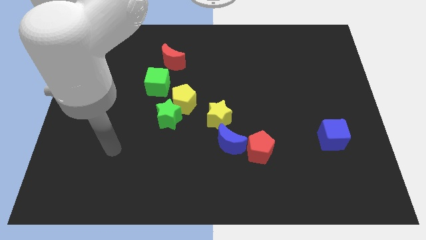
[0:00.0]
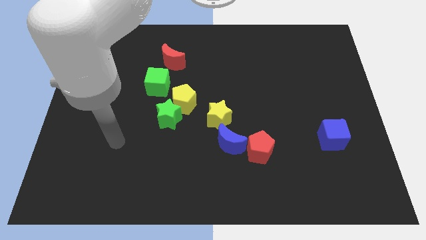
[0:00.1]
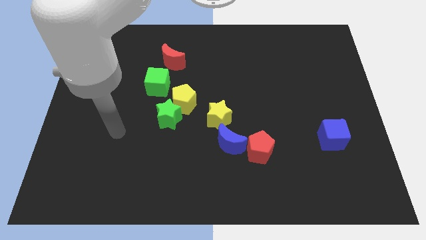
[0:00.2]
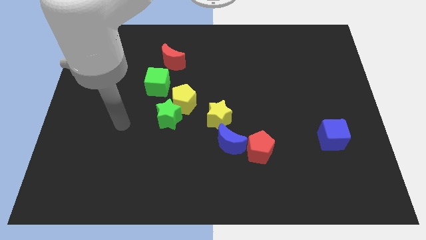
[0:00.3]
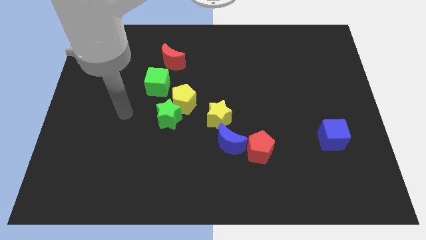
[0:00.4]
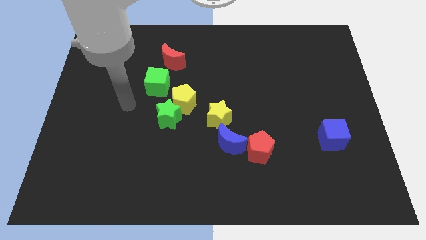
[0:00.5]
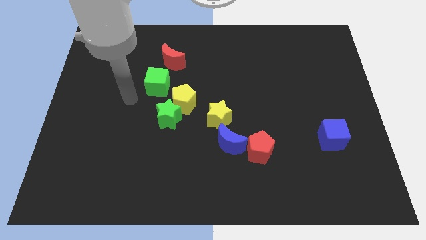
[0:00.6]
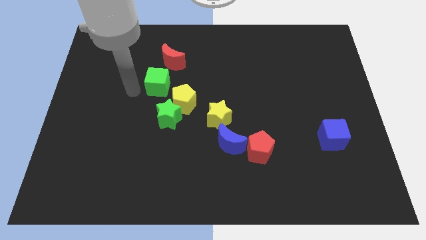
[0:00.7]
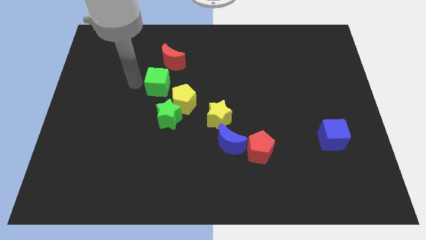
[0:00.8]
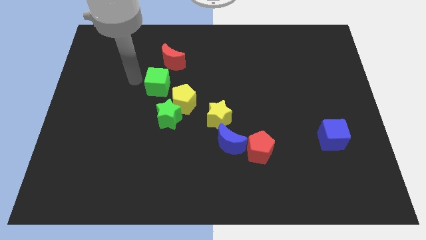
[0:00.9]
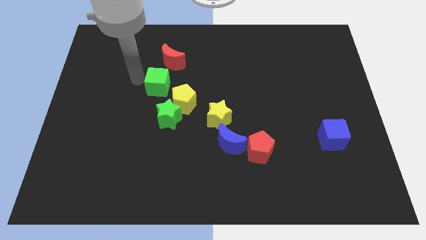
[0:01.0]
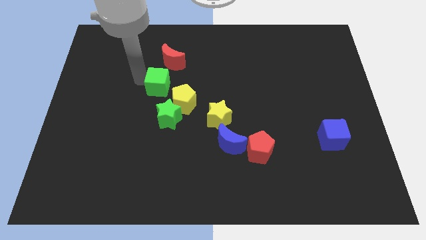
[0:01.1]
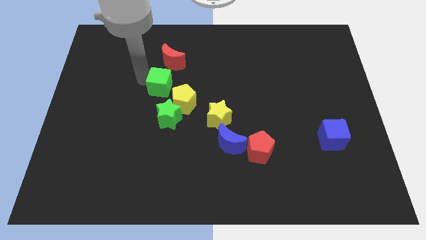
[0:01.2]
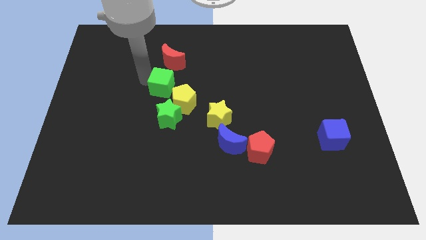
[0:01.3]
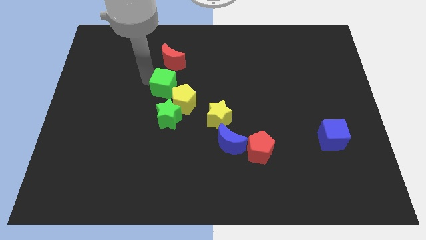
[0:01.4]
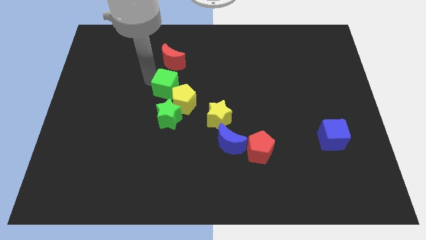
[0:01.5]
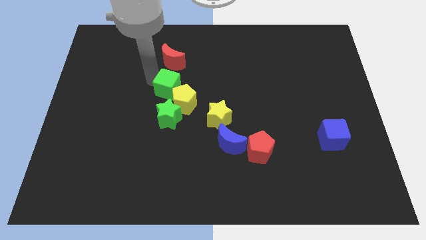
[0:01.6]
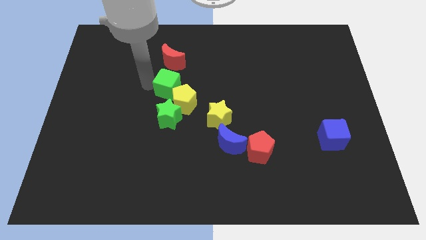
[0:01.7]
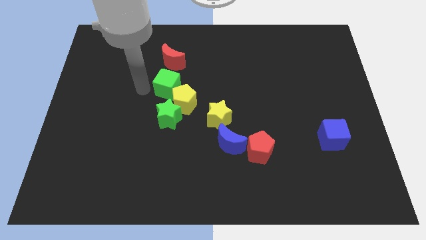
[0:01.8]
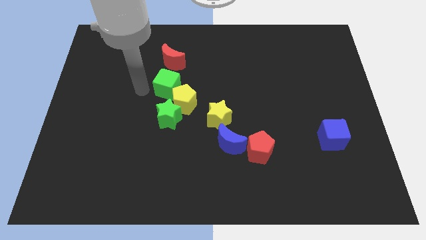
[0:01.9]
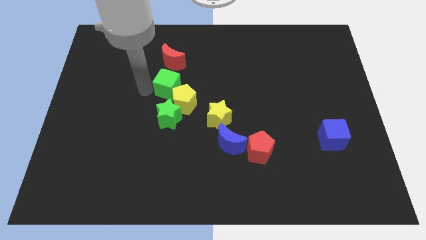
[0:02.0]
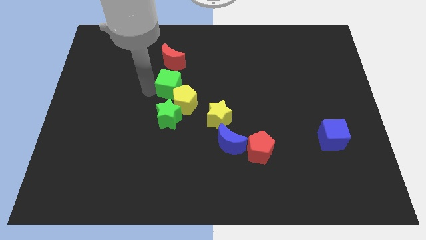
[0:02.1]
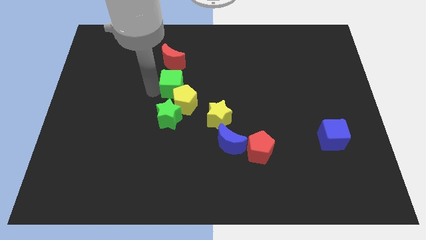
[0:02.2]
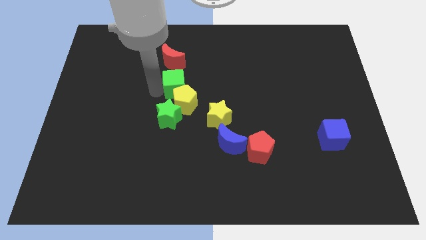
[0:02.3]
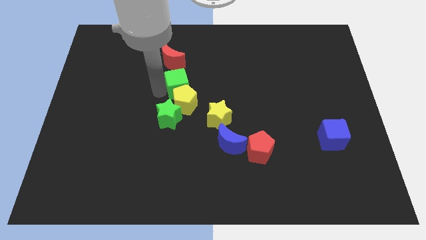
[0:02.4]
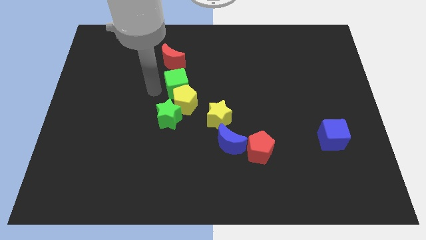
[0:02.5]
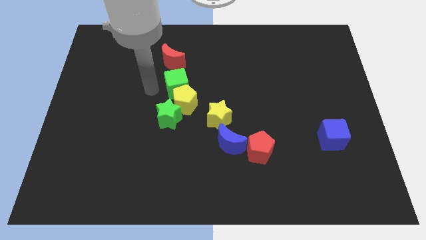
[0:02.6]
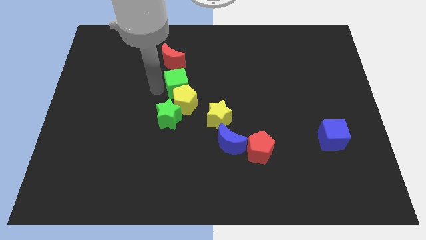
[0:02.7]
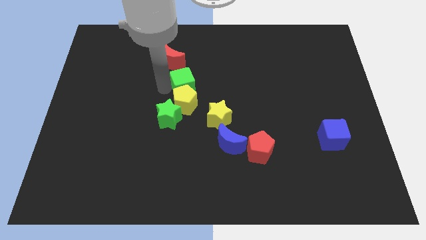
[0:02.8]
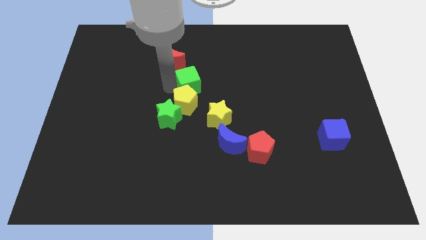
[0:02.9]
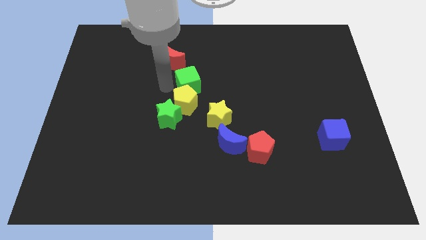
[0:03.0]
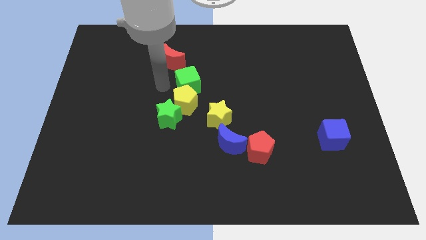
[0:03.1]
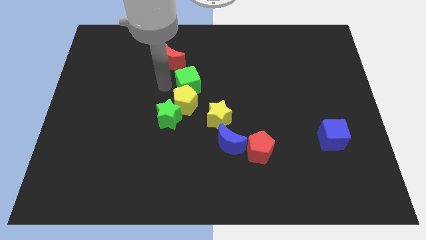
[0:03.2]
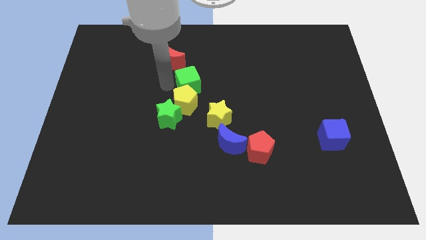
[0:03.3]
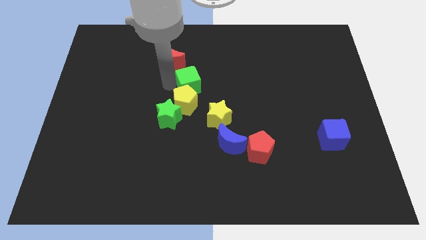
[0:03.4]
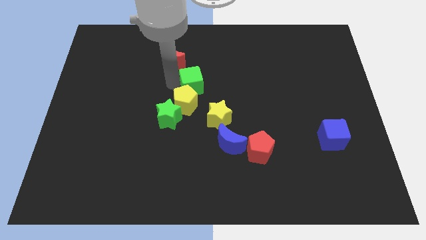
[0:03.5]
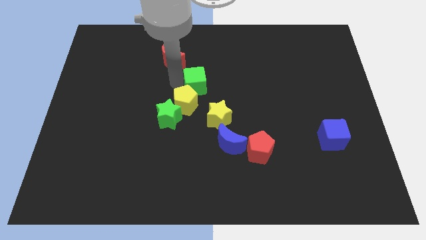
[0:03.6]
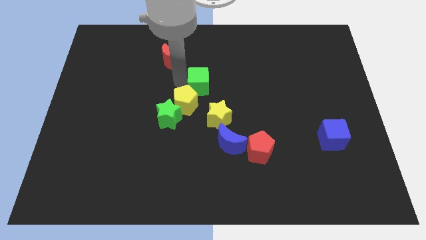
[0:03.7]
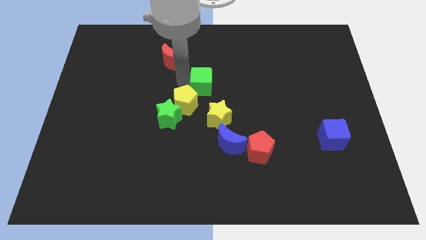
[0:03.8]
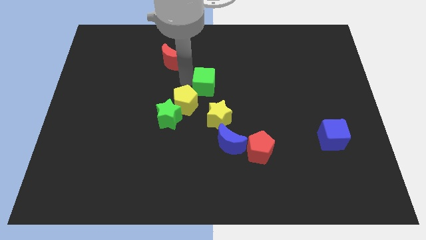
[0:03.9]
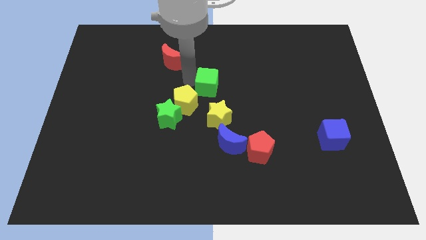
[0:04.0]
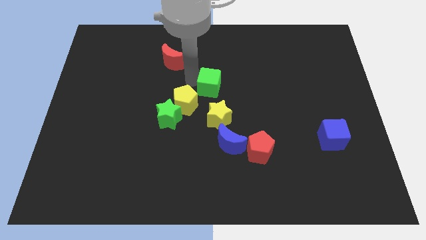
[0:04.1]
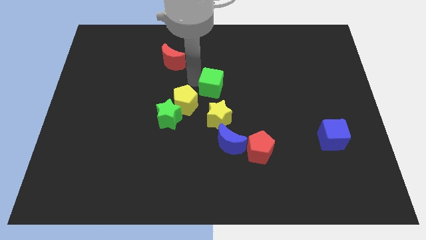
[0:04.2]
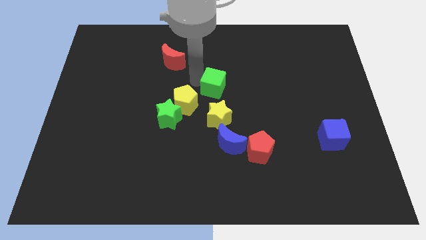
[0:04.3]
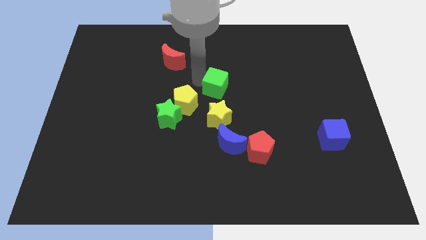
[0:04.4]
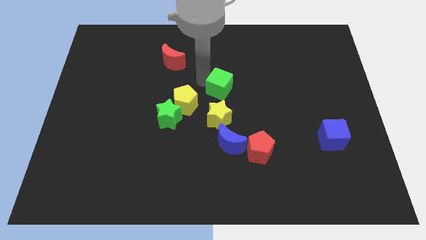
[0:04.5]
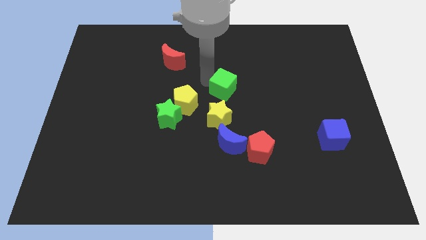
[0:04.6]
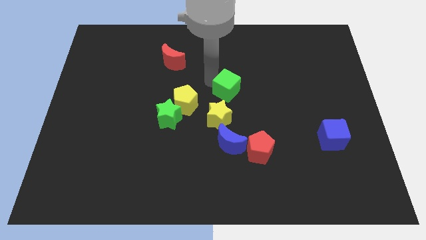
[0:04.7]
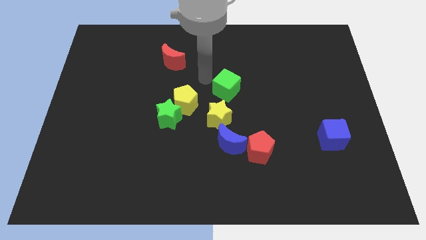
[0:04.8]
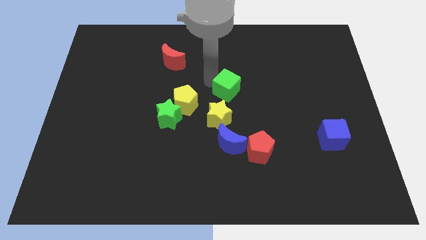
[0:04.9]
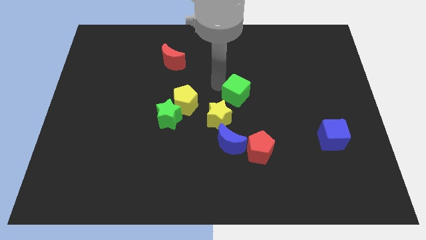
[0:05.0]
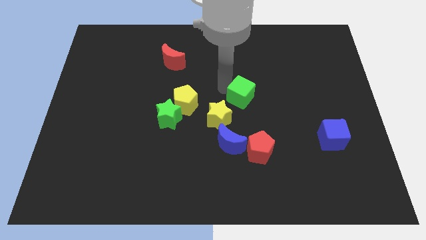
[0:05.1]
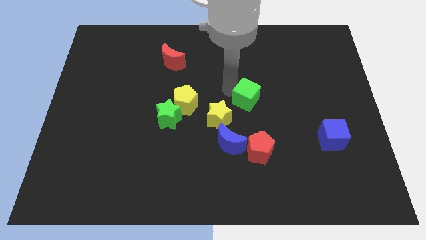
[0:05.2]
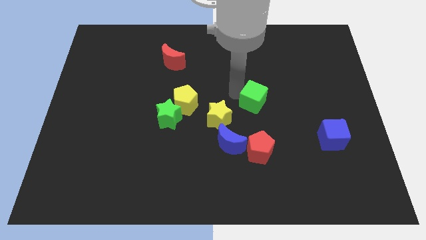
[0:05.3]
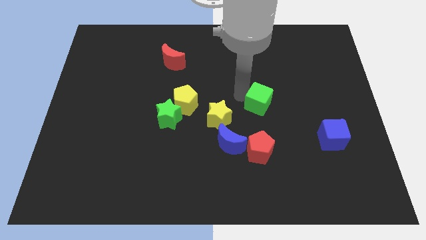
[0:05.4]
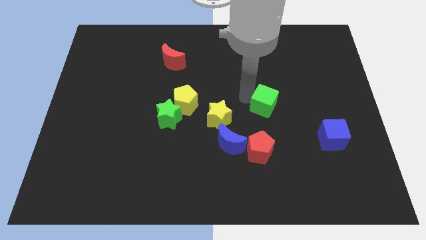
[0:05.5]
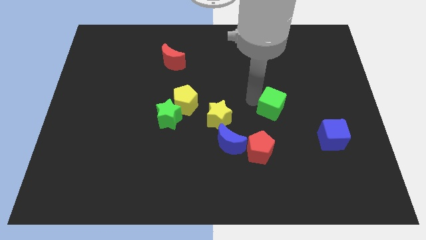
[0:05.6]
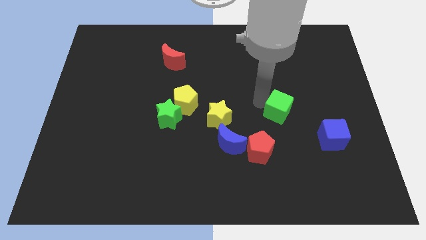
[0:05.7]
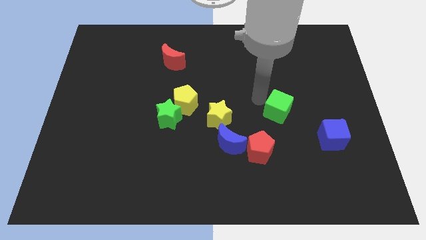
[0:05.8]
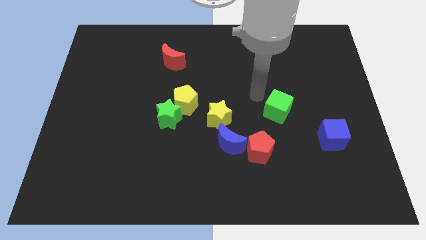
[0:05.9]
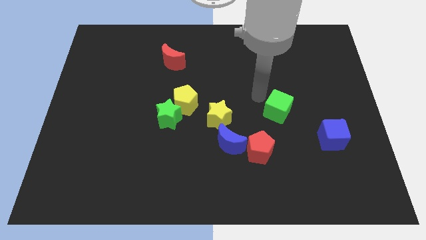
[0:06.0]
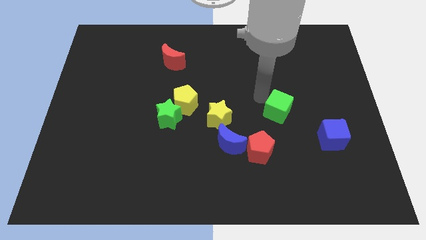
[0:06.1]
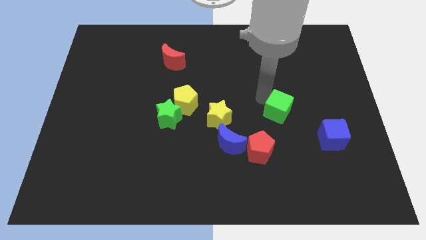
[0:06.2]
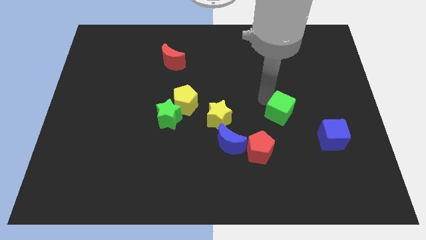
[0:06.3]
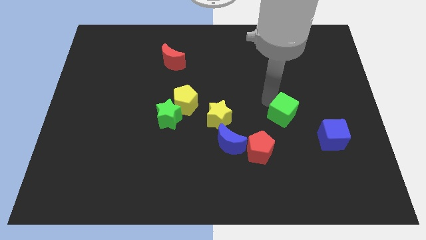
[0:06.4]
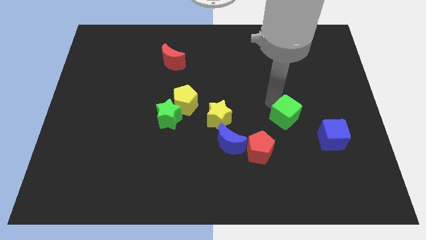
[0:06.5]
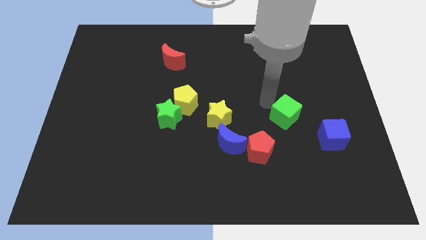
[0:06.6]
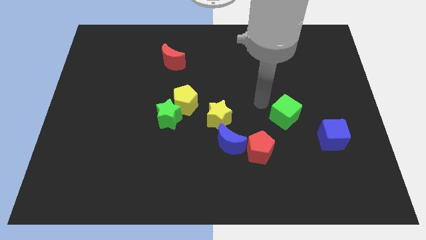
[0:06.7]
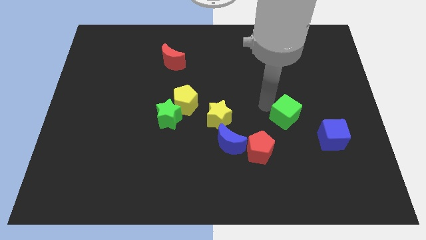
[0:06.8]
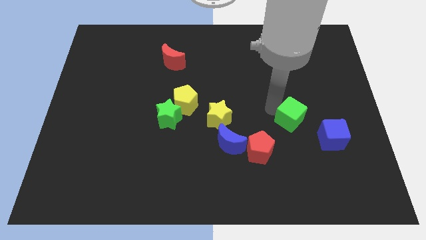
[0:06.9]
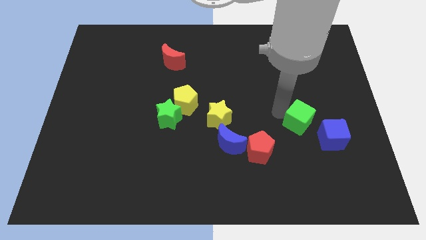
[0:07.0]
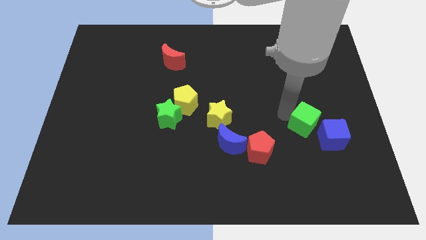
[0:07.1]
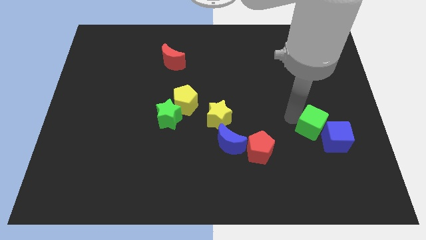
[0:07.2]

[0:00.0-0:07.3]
push the green cube to the blue cube

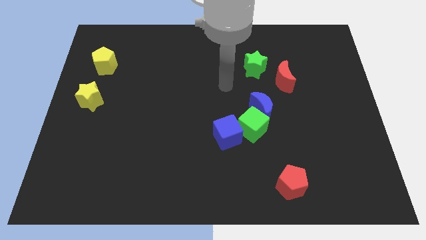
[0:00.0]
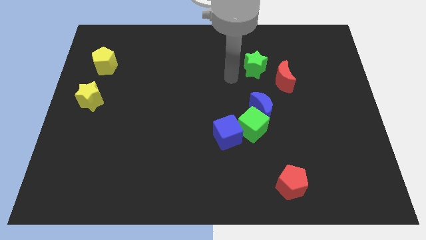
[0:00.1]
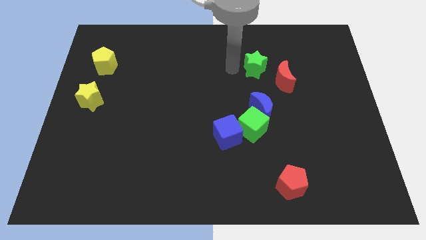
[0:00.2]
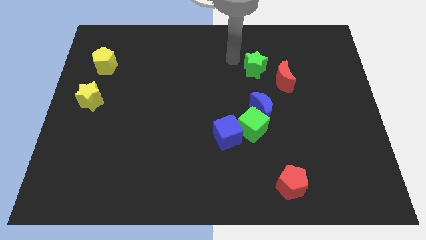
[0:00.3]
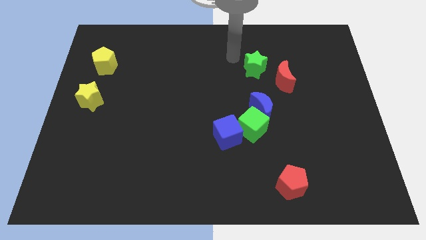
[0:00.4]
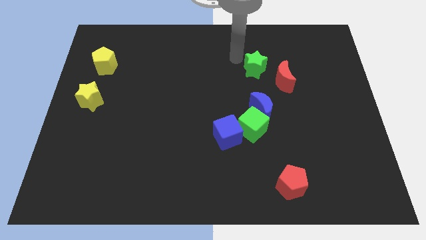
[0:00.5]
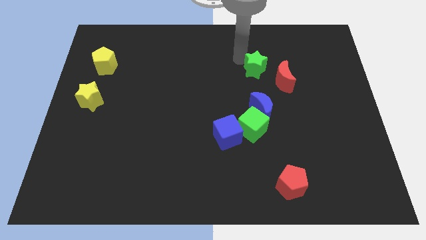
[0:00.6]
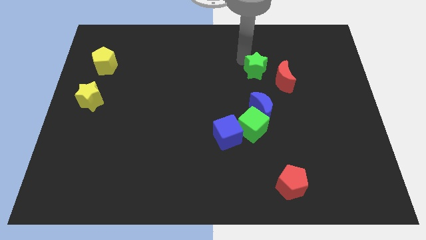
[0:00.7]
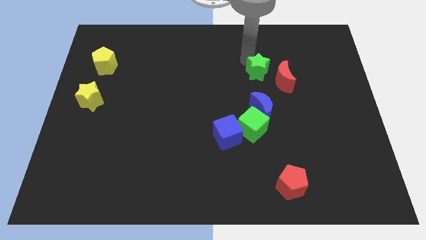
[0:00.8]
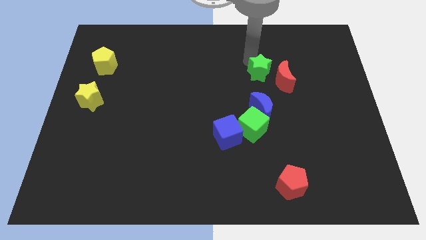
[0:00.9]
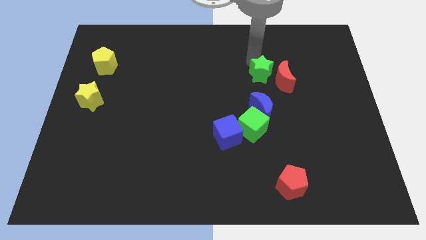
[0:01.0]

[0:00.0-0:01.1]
slide the green star towards the red moon
